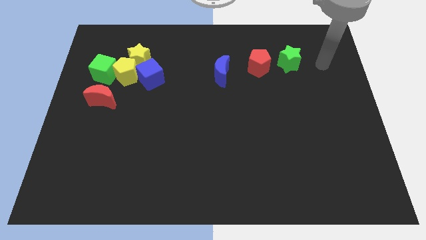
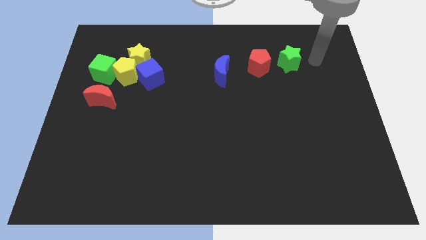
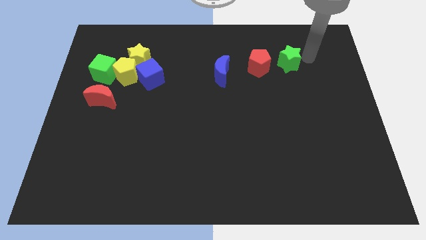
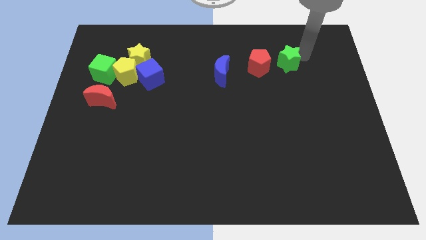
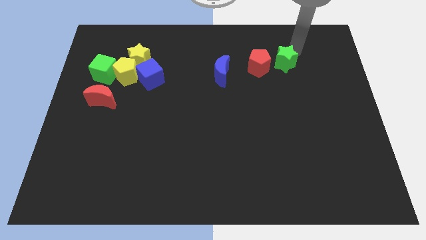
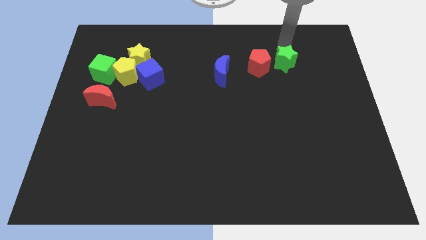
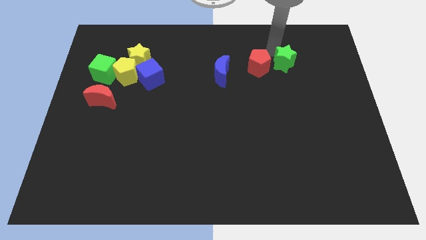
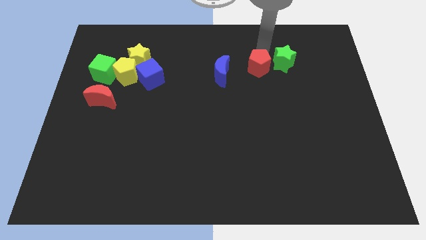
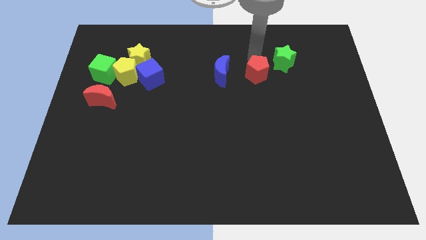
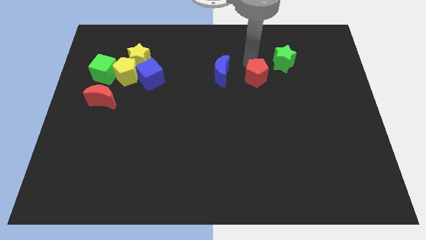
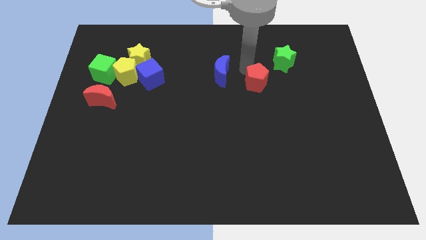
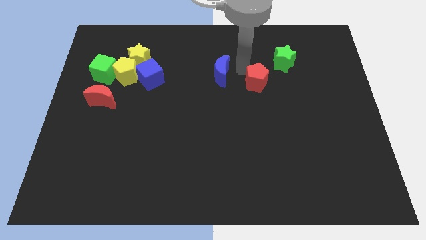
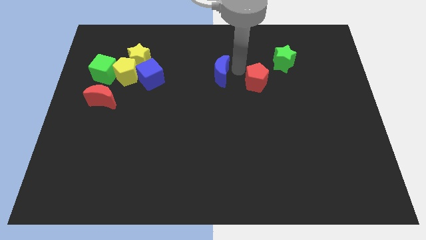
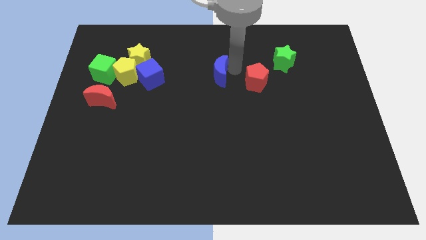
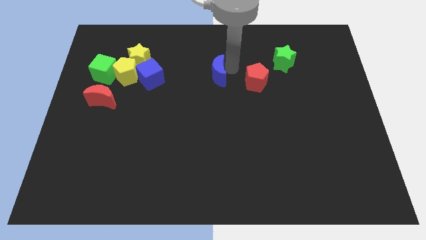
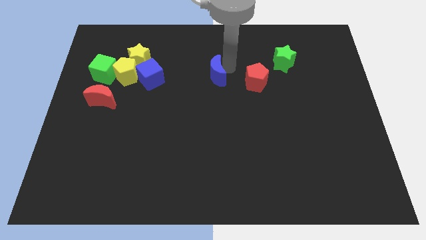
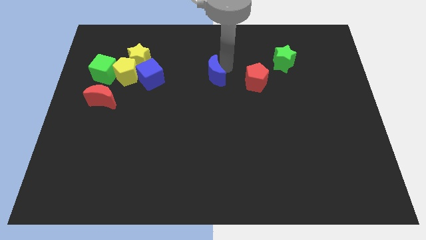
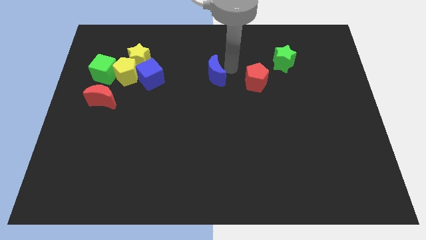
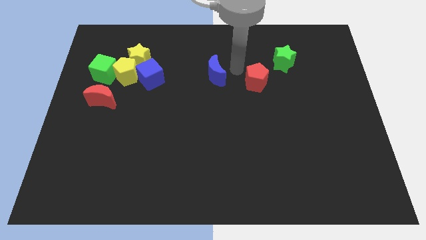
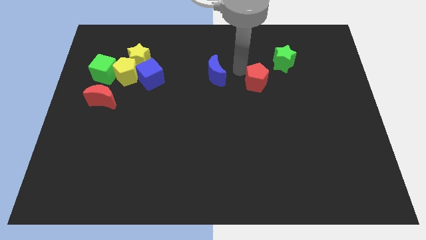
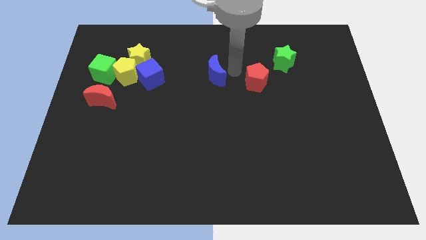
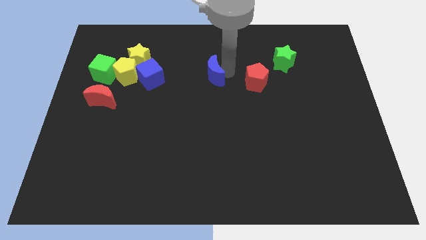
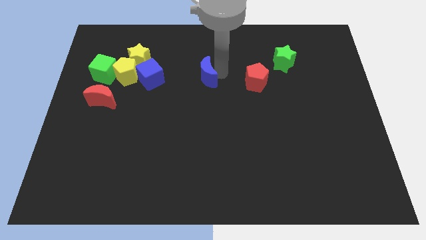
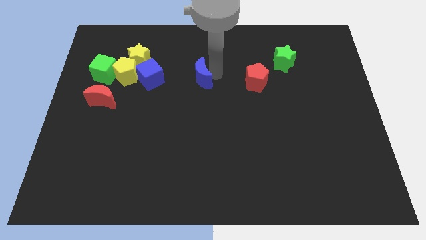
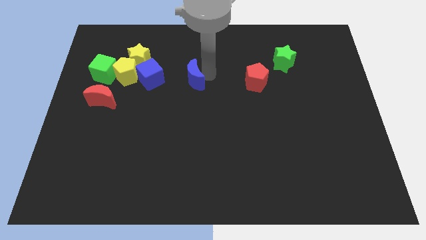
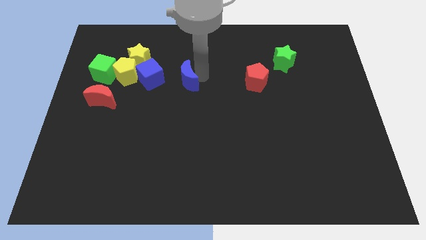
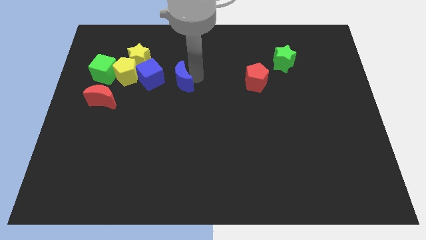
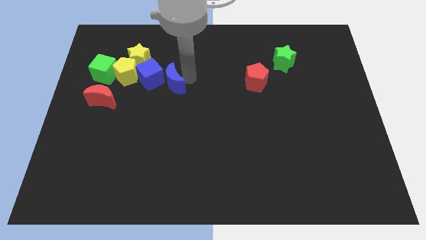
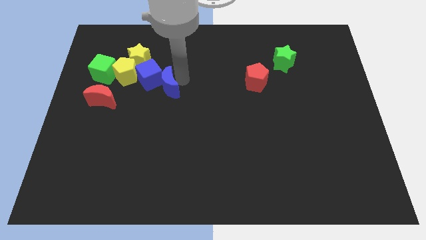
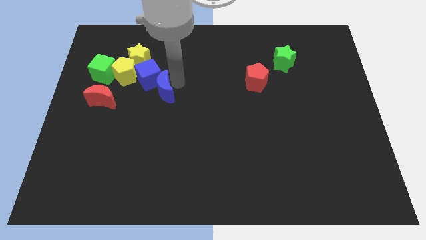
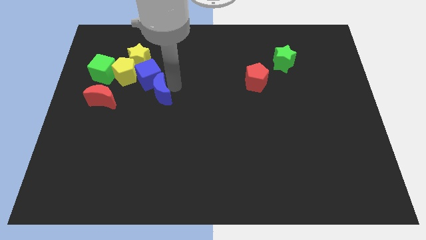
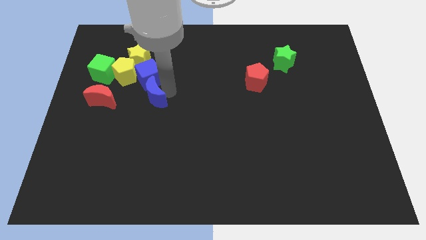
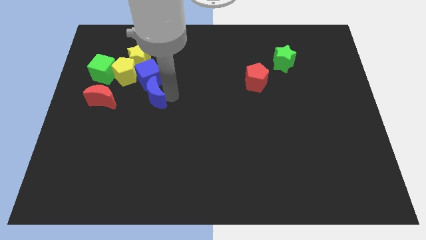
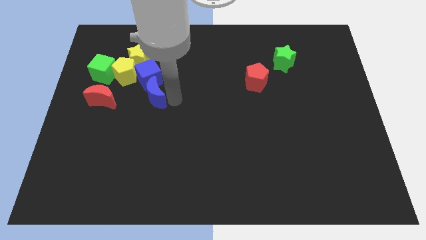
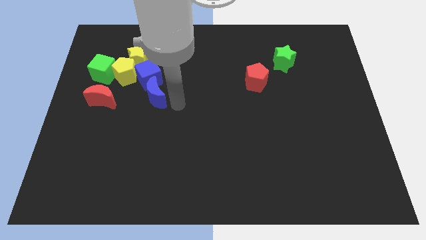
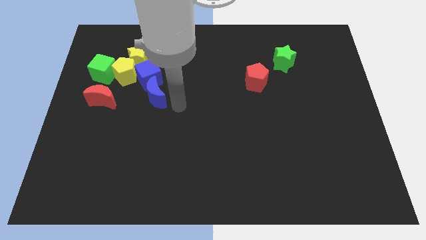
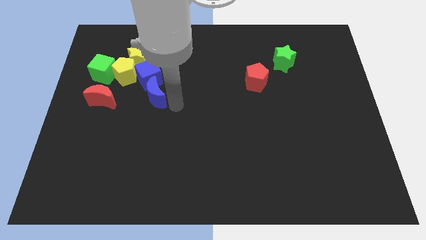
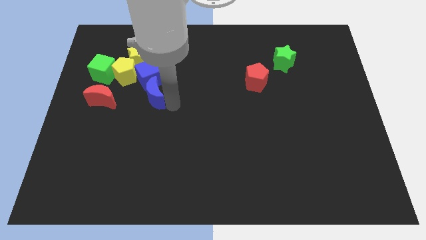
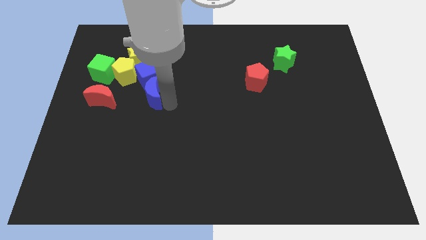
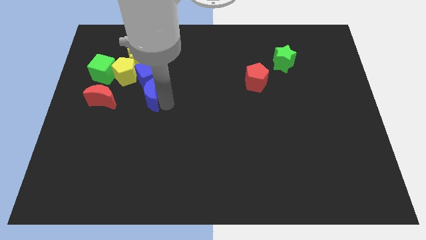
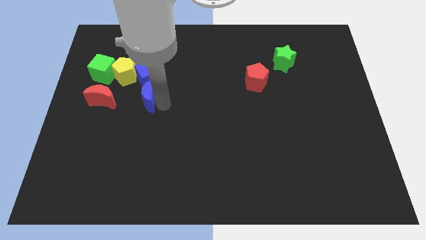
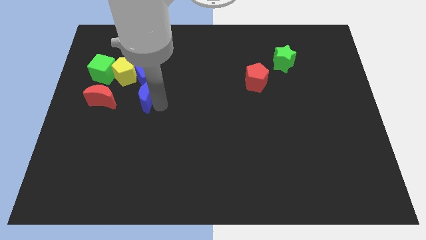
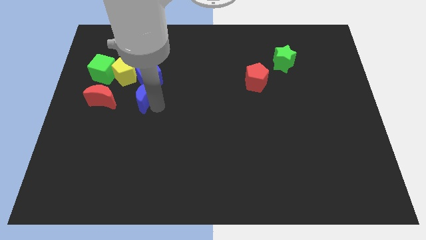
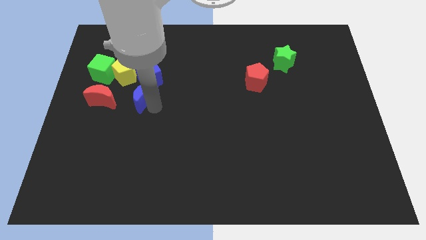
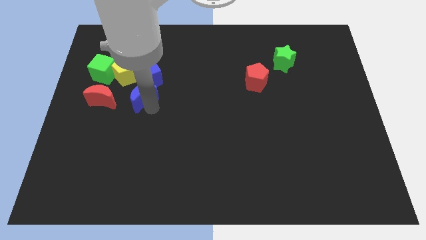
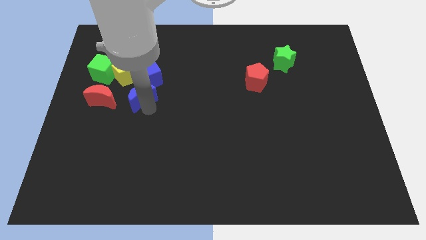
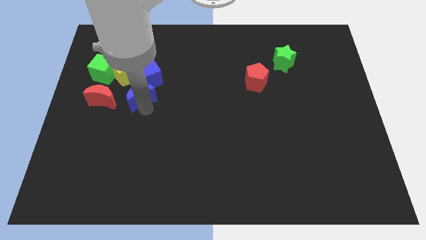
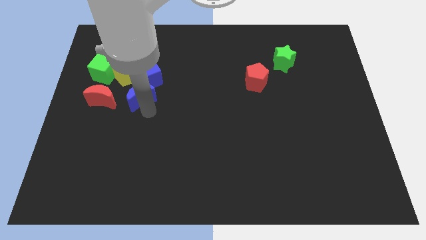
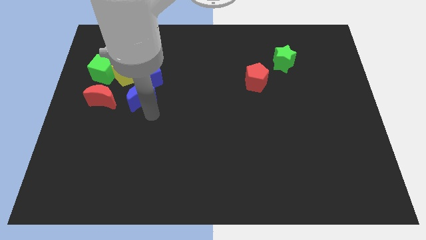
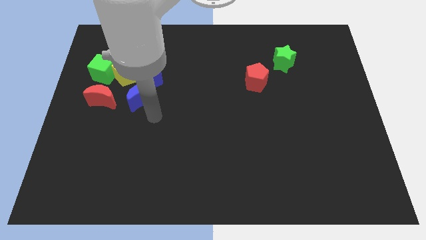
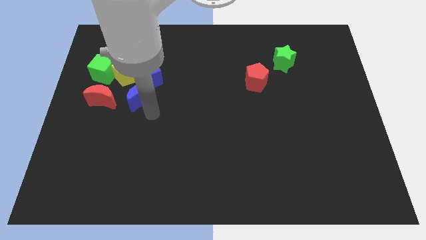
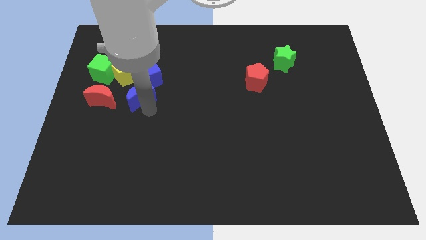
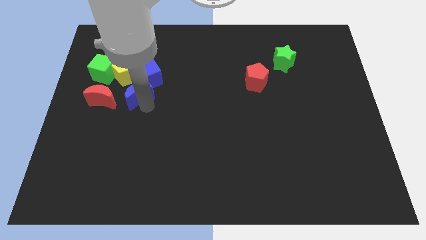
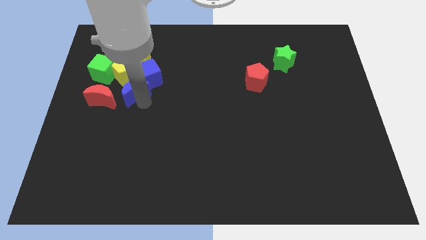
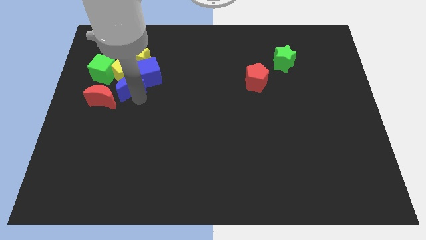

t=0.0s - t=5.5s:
slide the blue moon close to the yellow pentagon

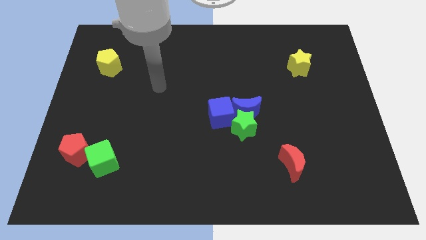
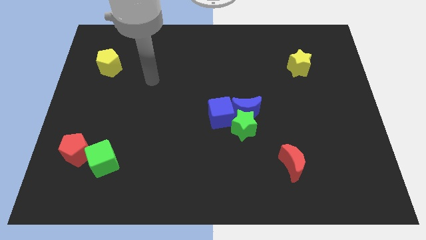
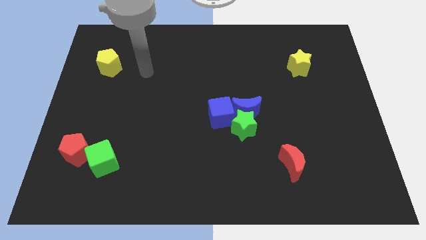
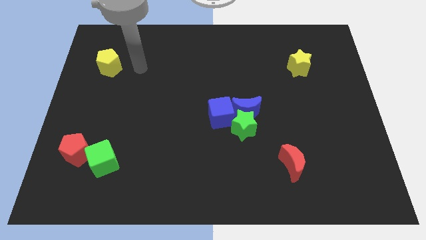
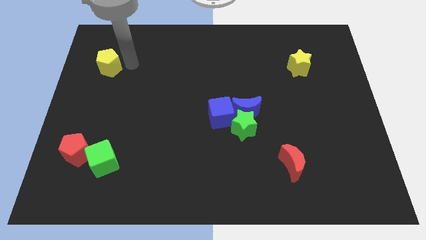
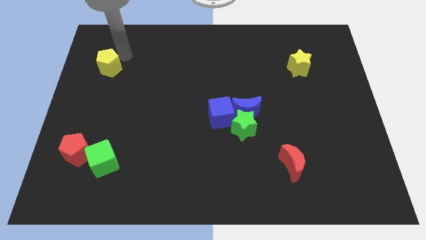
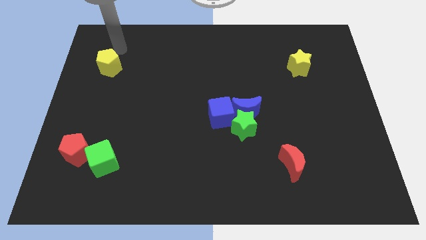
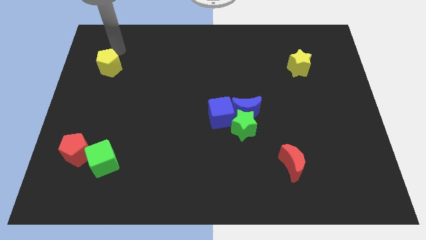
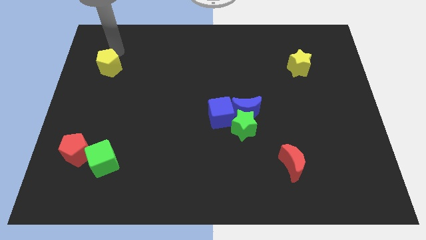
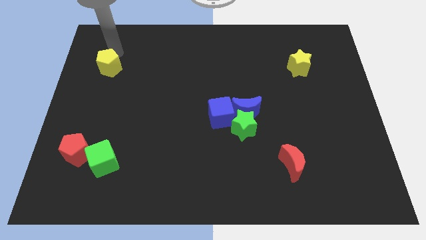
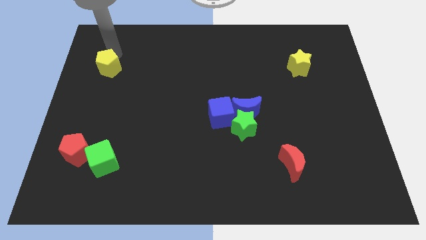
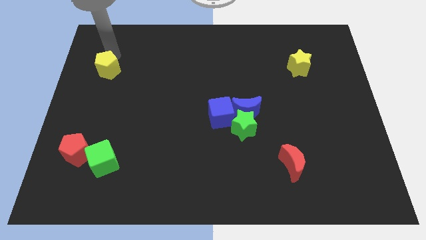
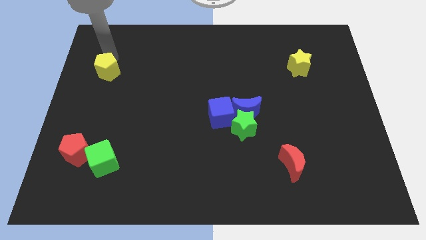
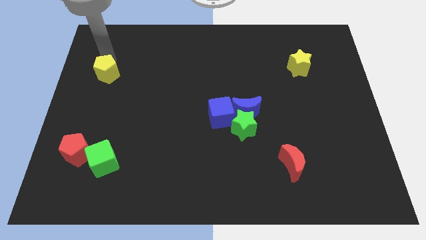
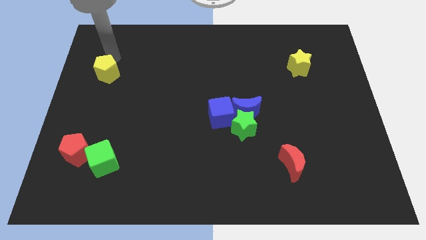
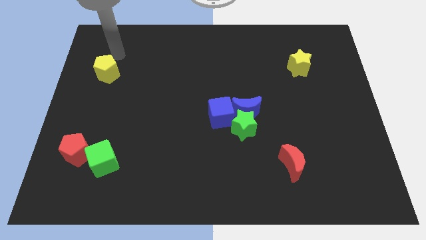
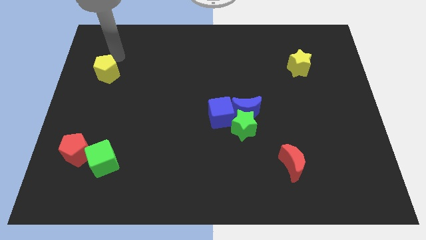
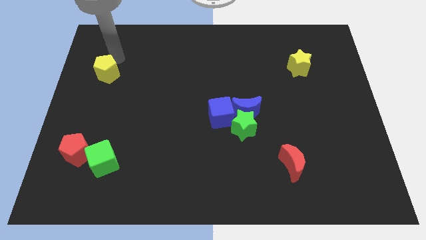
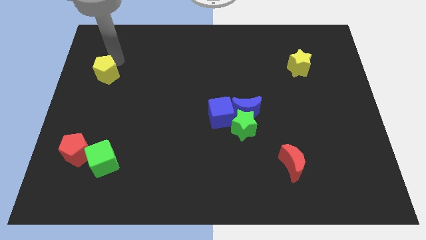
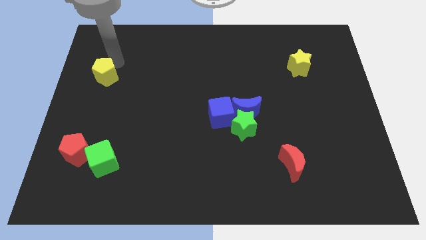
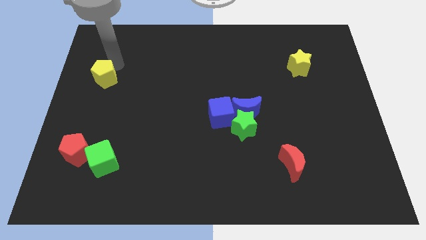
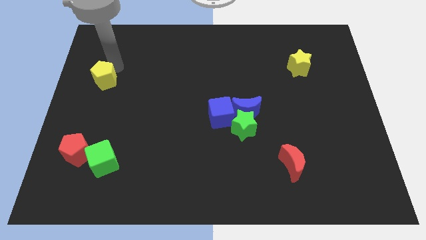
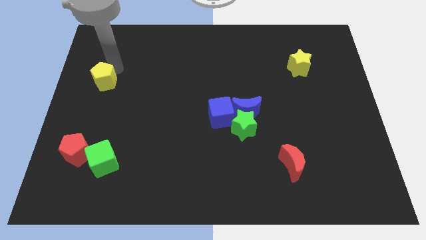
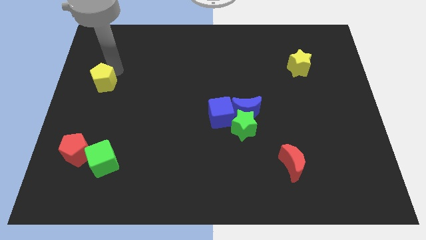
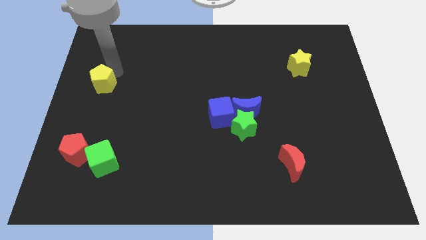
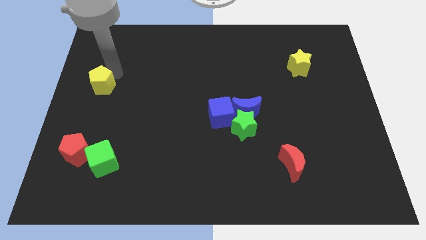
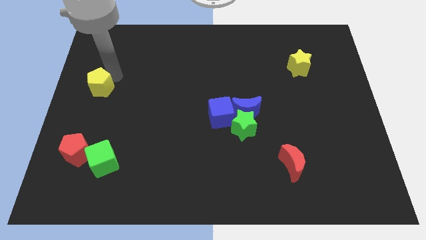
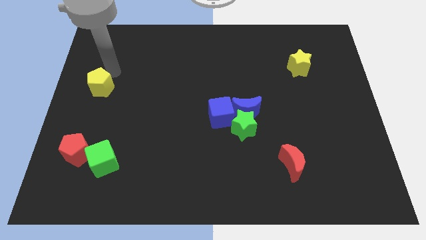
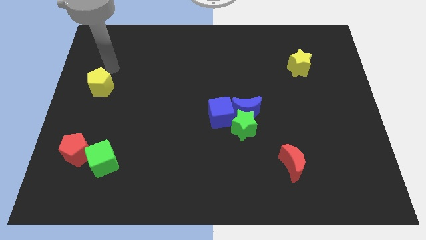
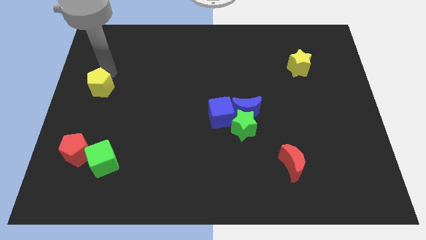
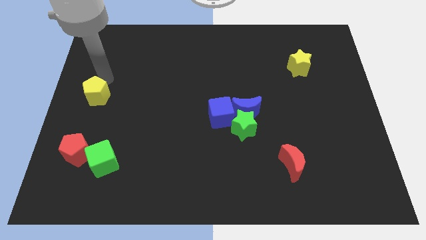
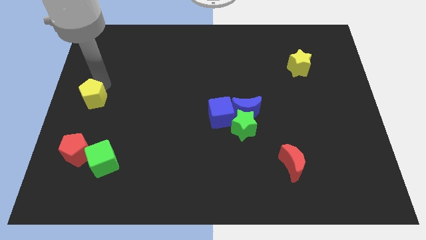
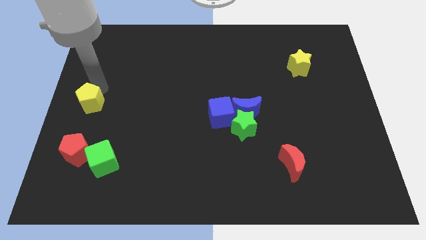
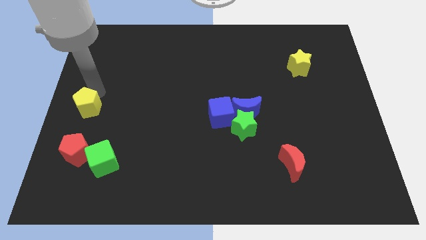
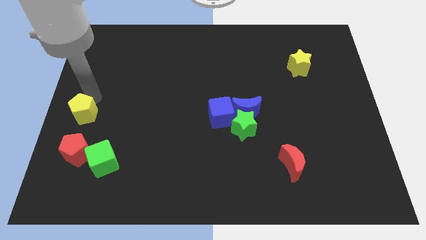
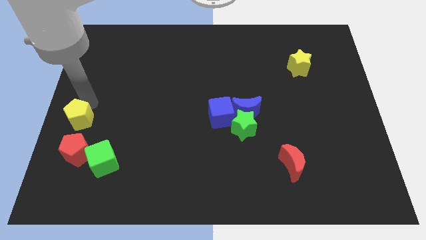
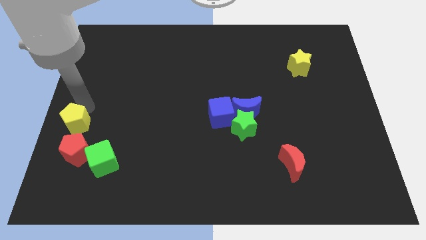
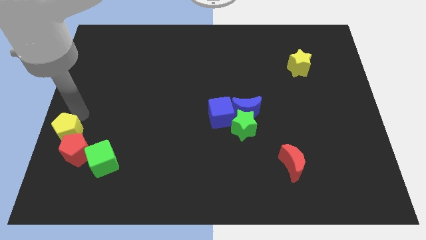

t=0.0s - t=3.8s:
move the yellow pentagon close to the red pentagon
